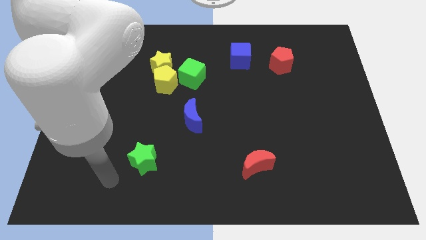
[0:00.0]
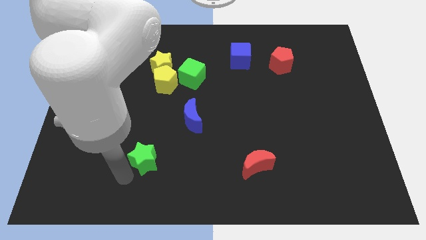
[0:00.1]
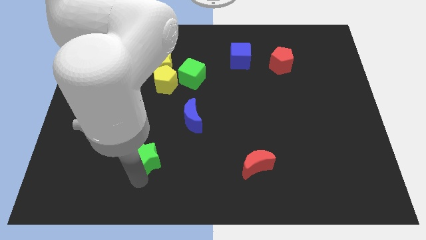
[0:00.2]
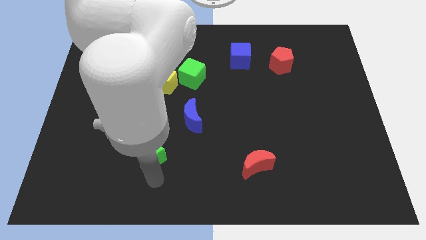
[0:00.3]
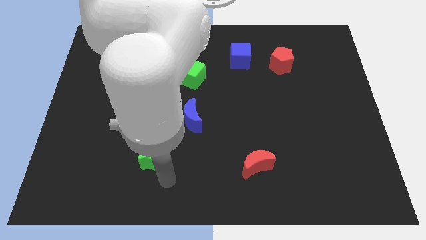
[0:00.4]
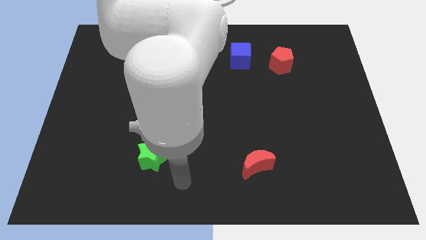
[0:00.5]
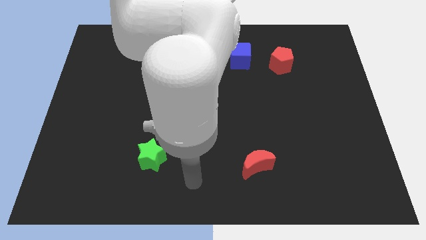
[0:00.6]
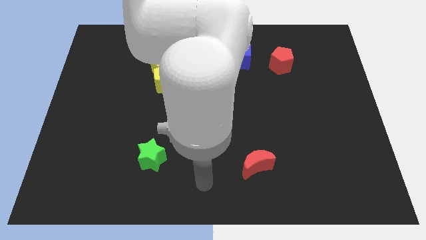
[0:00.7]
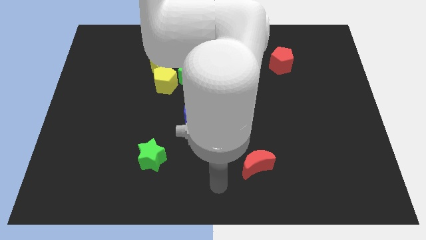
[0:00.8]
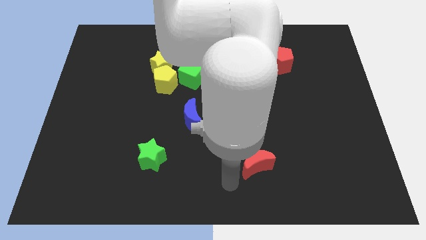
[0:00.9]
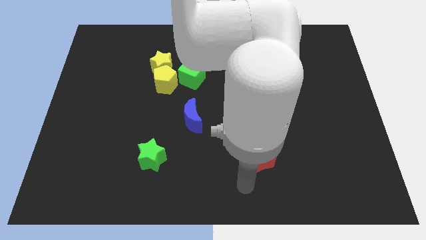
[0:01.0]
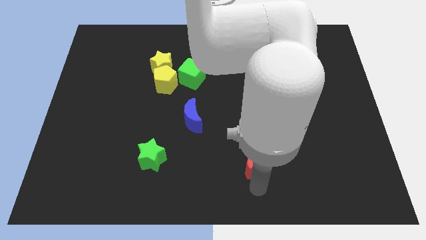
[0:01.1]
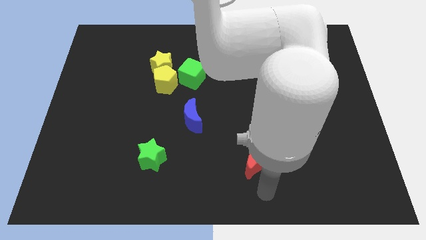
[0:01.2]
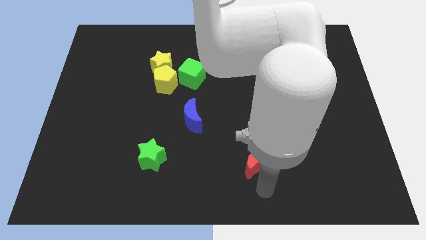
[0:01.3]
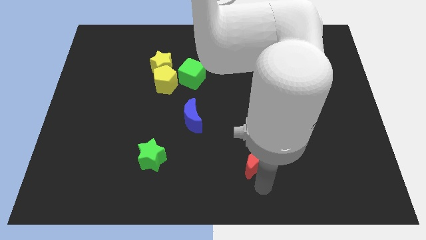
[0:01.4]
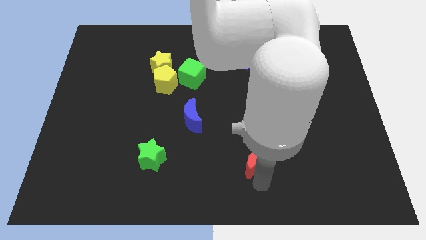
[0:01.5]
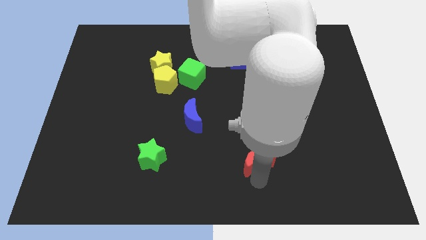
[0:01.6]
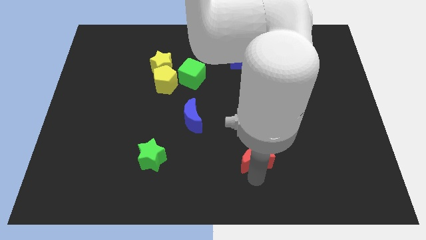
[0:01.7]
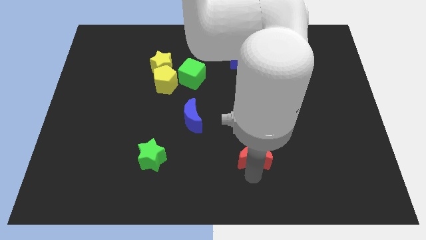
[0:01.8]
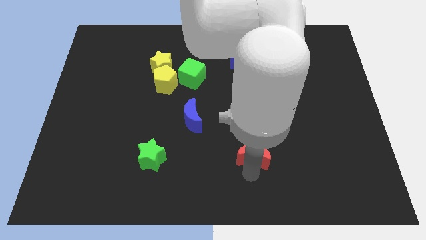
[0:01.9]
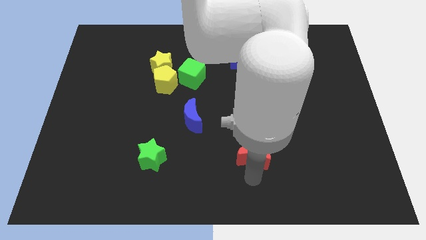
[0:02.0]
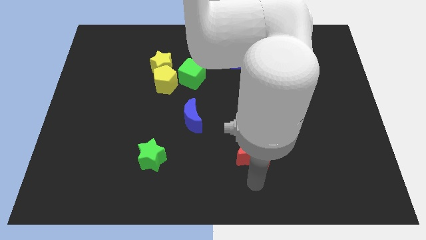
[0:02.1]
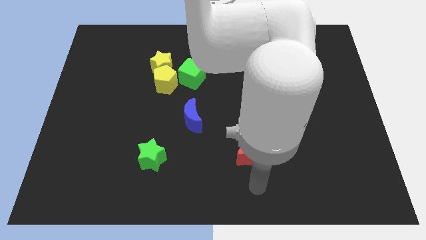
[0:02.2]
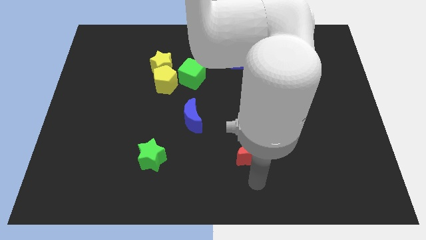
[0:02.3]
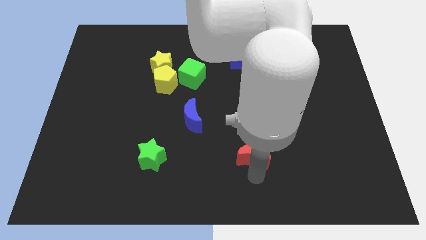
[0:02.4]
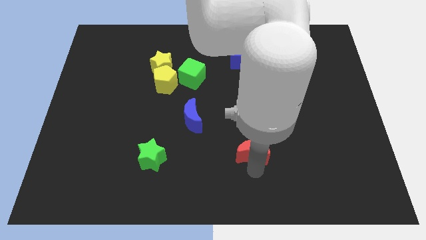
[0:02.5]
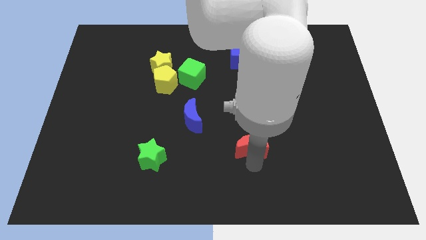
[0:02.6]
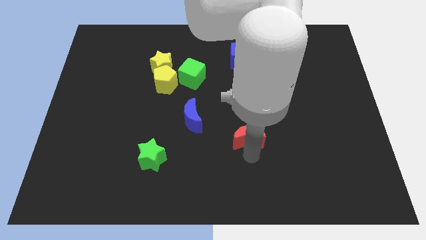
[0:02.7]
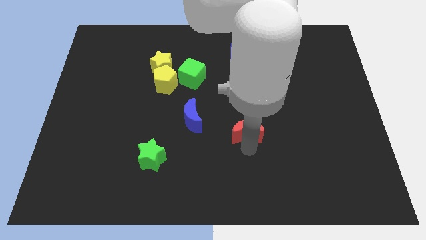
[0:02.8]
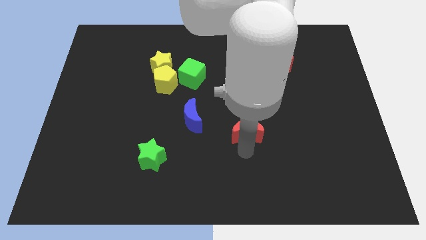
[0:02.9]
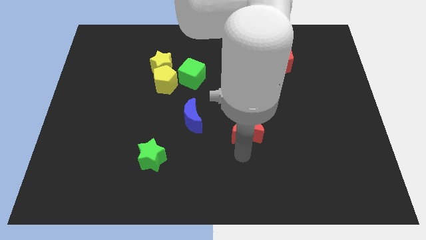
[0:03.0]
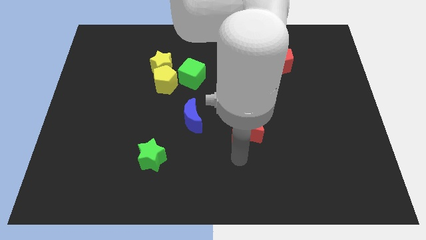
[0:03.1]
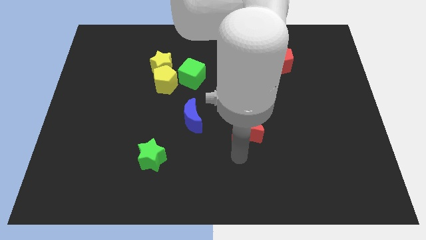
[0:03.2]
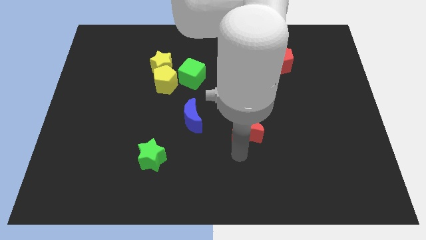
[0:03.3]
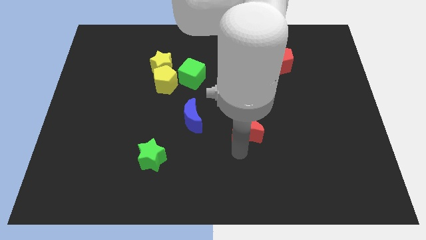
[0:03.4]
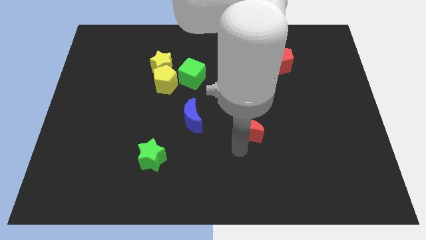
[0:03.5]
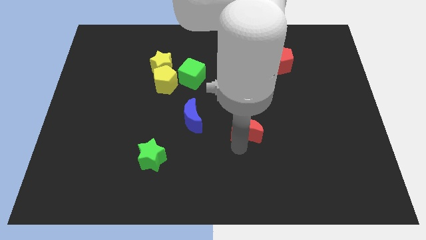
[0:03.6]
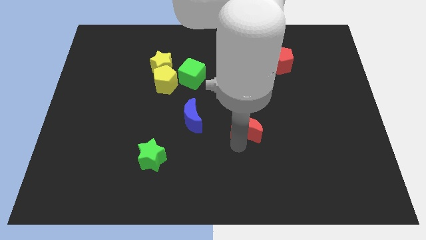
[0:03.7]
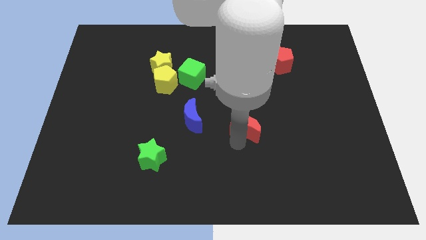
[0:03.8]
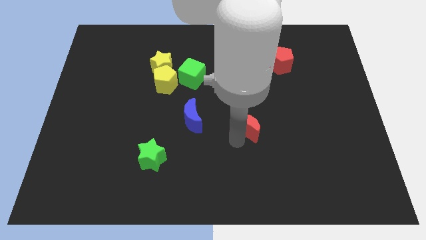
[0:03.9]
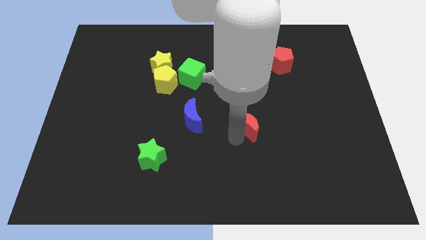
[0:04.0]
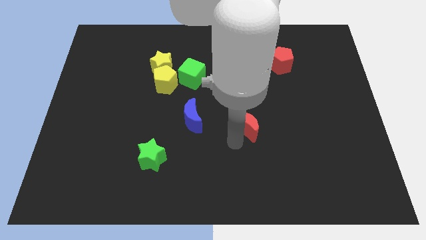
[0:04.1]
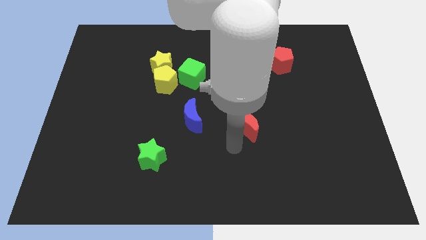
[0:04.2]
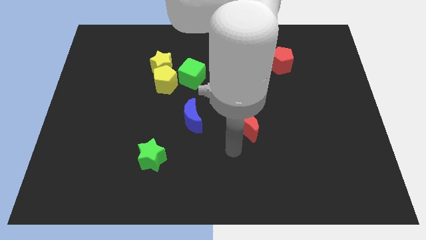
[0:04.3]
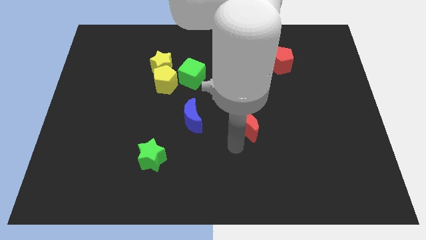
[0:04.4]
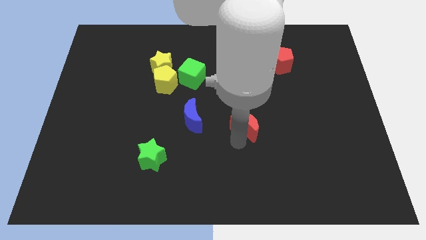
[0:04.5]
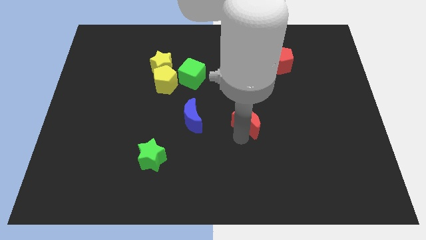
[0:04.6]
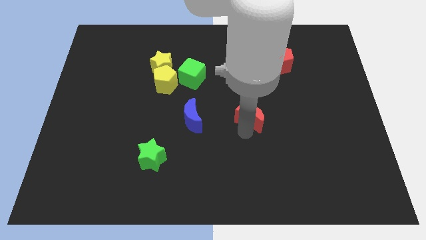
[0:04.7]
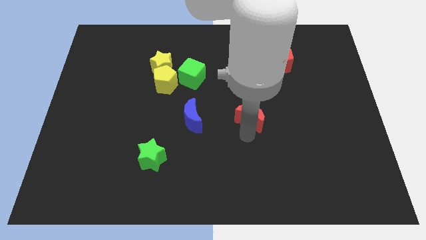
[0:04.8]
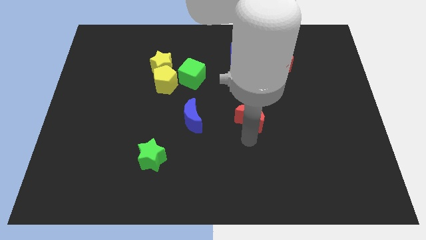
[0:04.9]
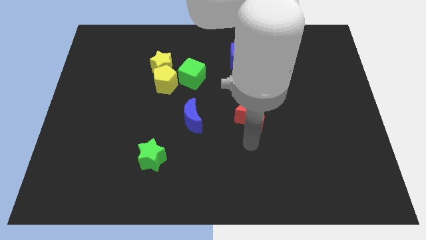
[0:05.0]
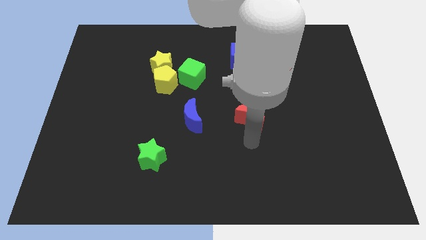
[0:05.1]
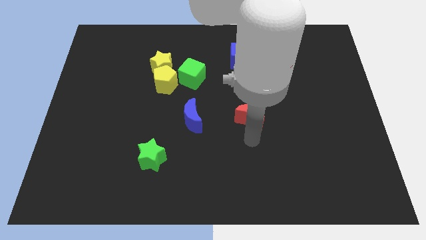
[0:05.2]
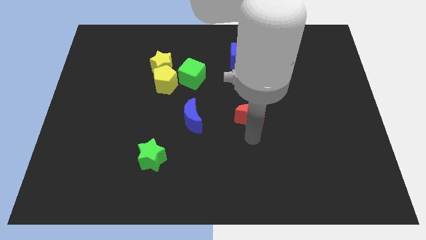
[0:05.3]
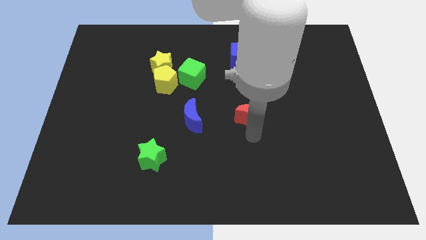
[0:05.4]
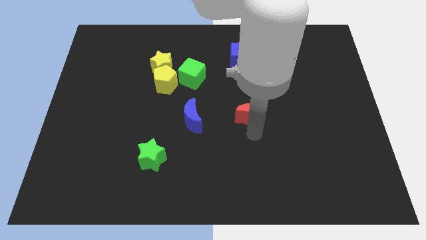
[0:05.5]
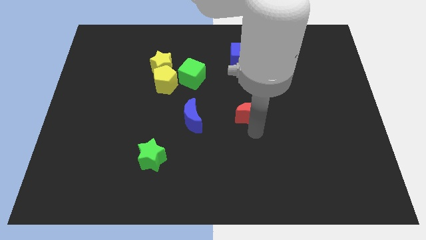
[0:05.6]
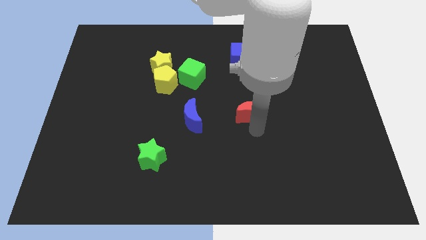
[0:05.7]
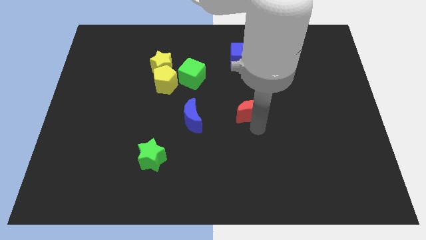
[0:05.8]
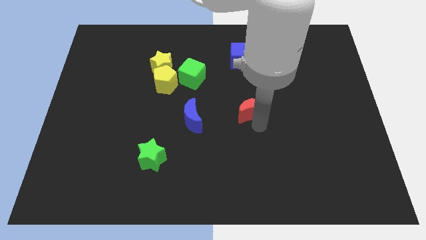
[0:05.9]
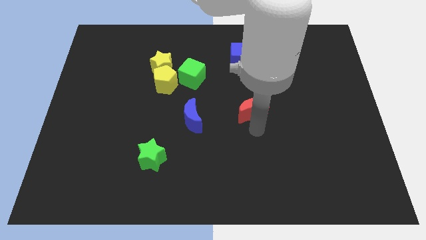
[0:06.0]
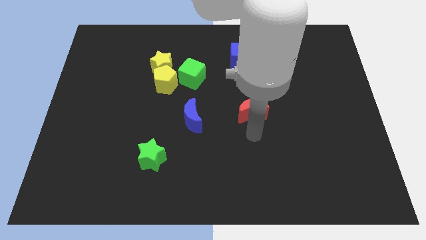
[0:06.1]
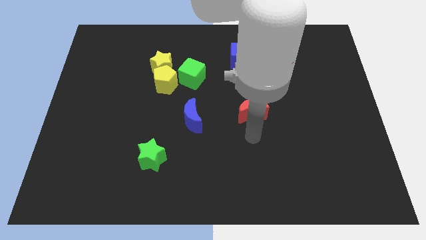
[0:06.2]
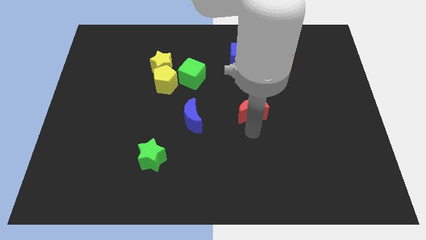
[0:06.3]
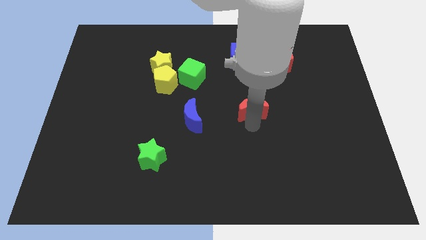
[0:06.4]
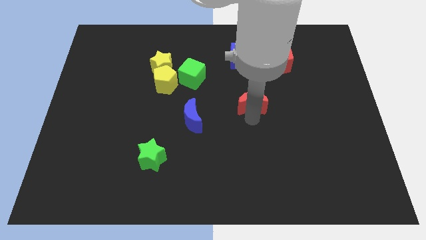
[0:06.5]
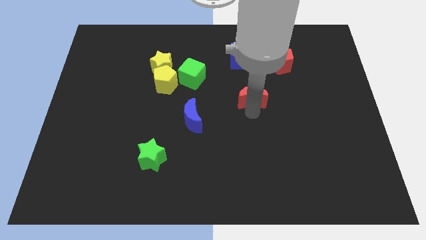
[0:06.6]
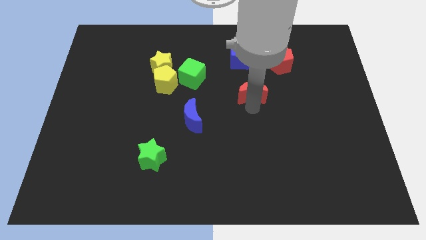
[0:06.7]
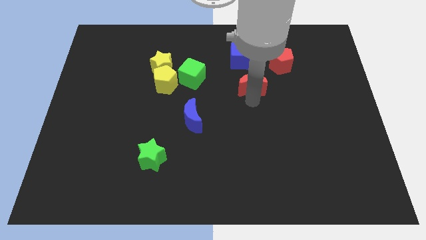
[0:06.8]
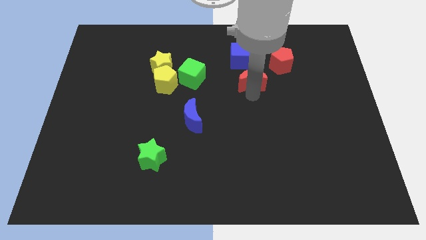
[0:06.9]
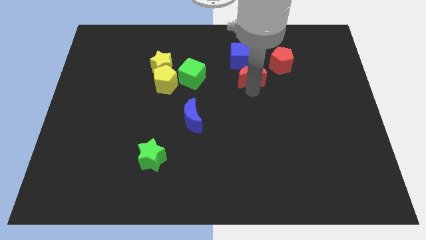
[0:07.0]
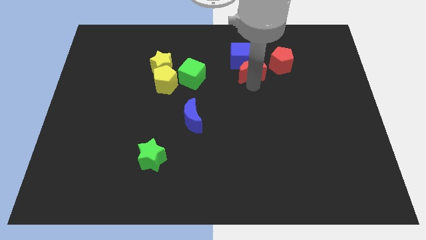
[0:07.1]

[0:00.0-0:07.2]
move the red moon towards the blue cube

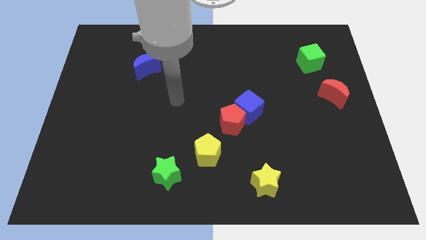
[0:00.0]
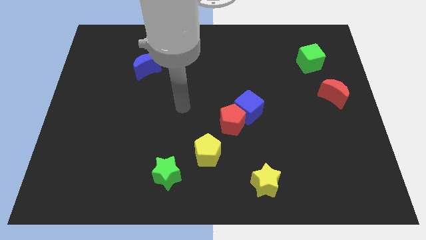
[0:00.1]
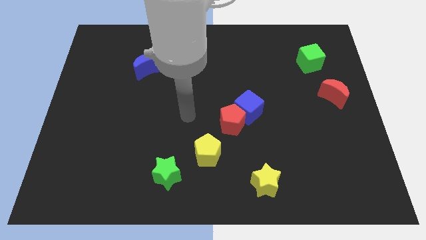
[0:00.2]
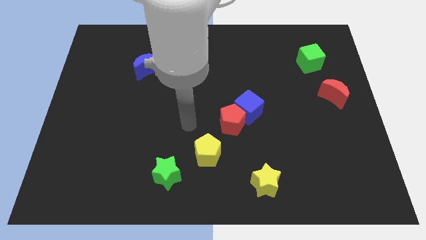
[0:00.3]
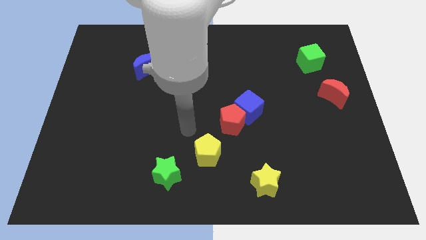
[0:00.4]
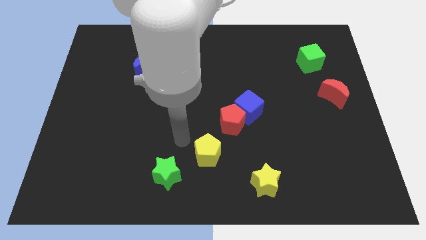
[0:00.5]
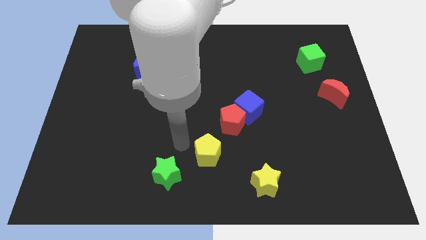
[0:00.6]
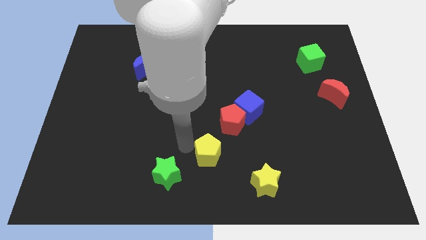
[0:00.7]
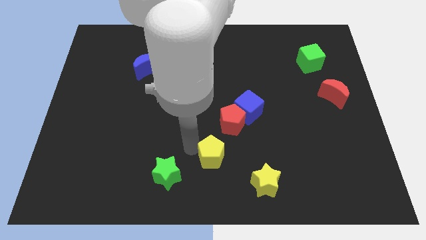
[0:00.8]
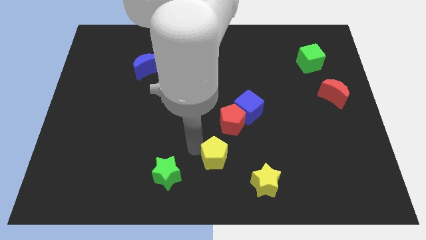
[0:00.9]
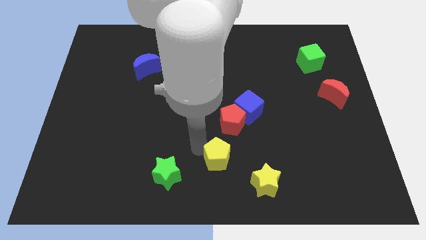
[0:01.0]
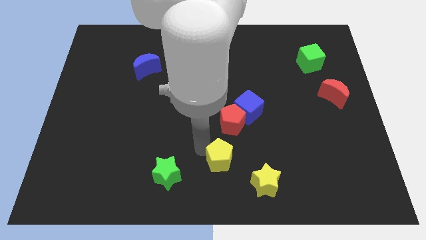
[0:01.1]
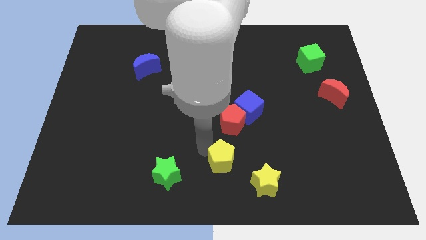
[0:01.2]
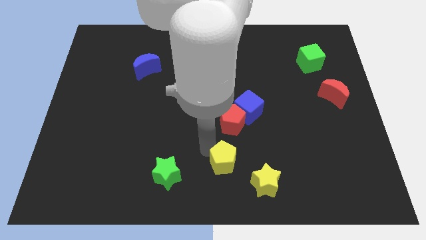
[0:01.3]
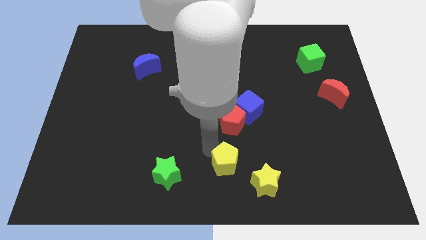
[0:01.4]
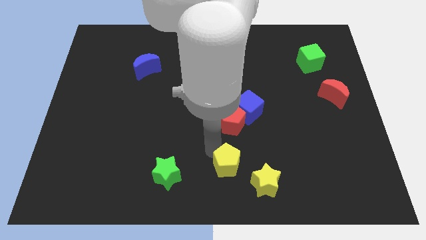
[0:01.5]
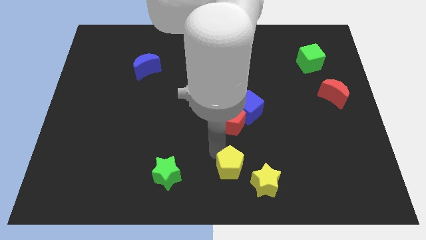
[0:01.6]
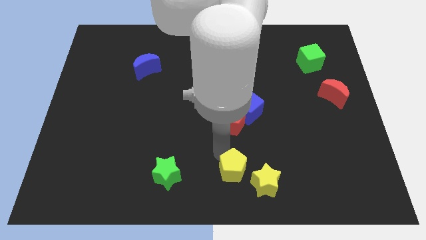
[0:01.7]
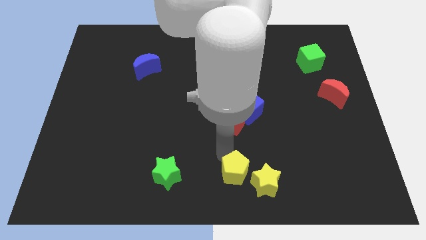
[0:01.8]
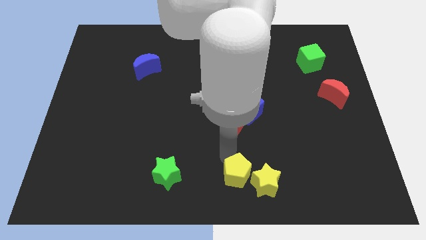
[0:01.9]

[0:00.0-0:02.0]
push the yellow pentagon towards the yellow star
